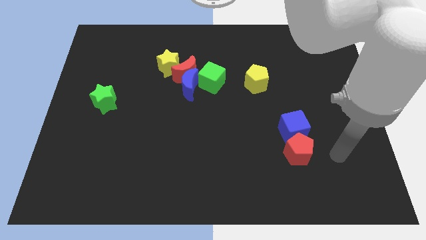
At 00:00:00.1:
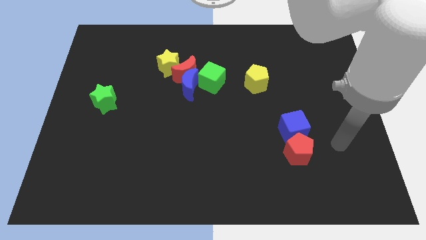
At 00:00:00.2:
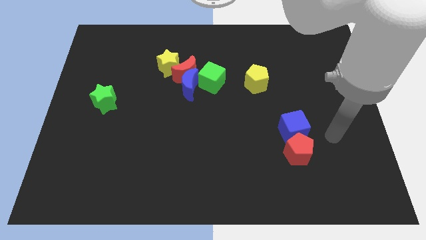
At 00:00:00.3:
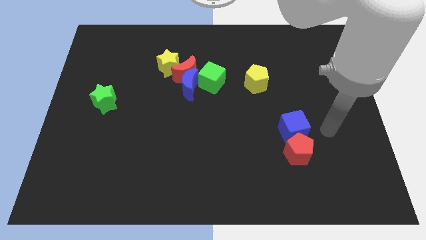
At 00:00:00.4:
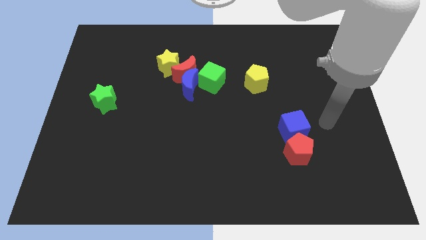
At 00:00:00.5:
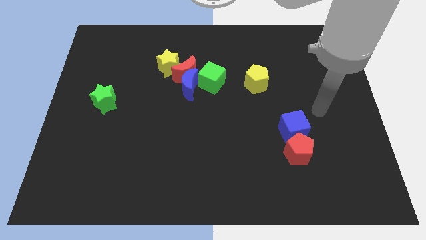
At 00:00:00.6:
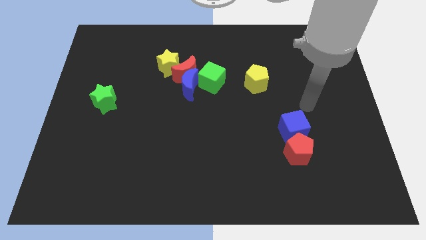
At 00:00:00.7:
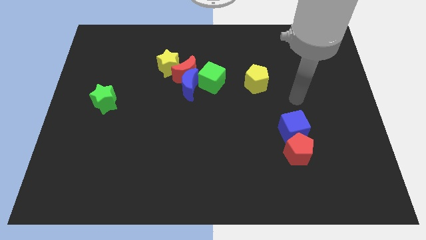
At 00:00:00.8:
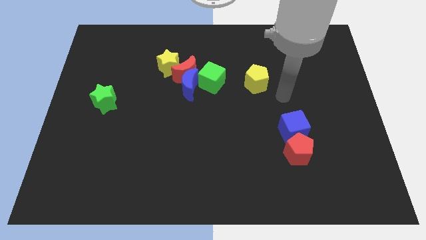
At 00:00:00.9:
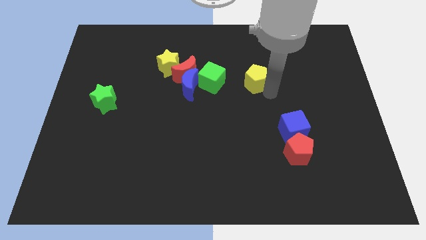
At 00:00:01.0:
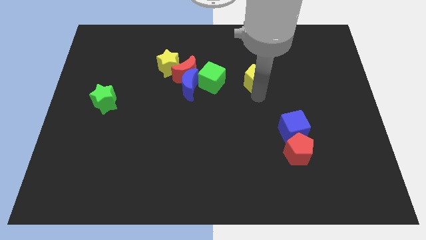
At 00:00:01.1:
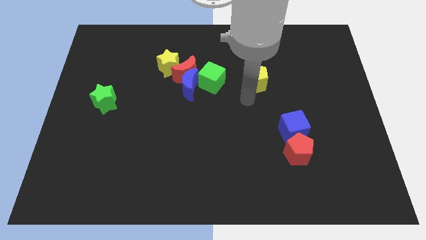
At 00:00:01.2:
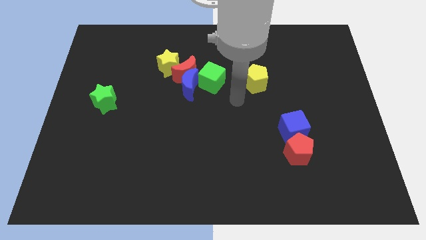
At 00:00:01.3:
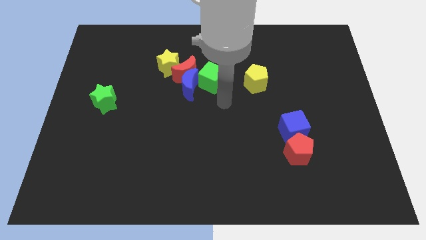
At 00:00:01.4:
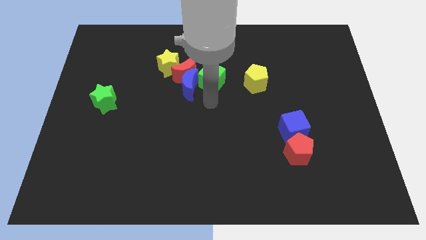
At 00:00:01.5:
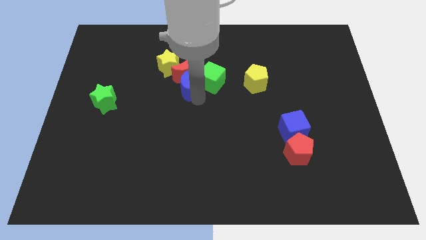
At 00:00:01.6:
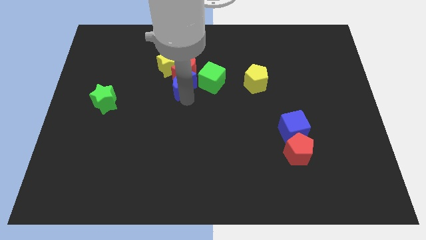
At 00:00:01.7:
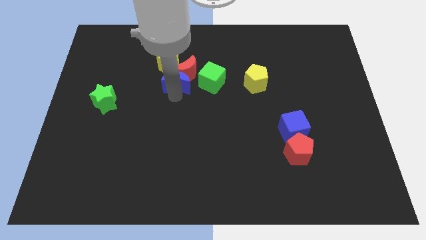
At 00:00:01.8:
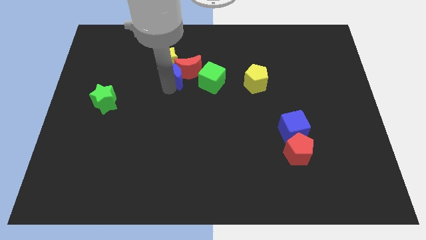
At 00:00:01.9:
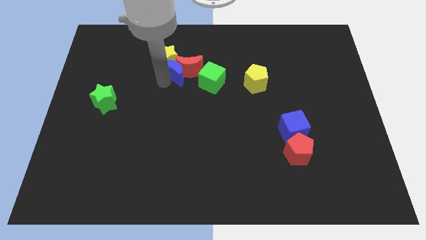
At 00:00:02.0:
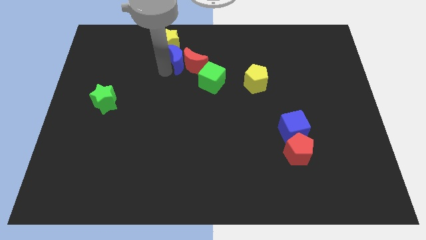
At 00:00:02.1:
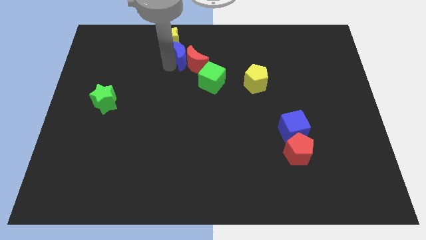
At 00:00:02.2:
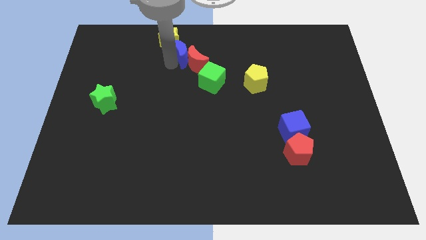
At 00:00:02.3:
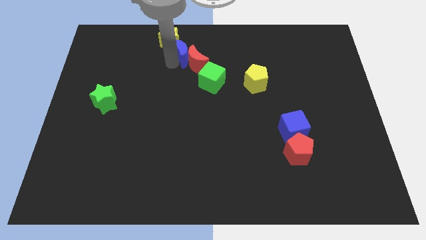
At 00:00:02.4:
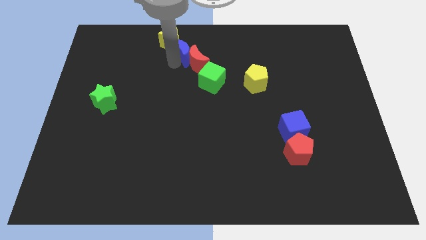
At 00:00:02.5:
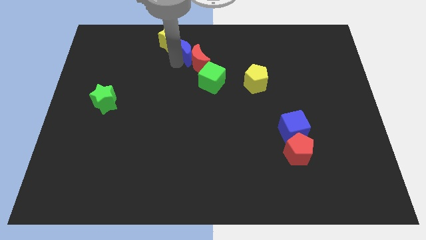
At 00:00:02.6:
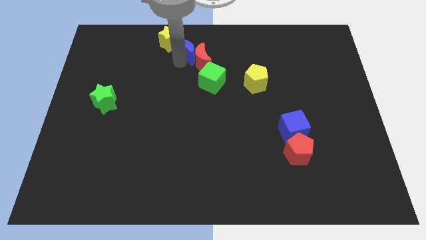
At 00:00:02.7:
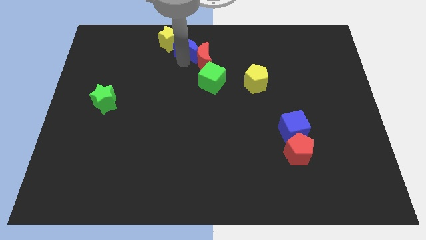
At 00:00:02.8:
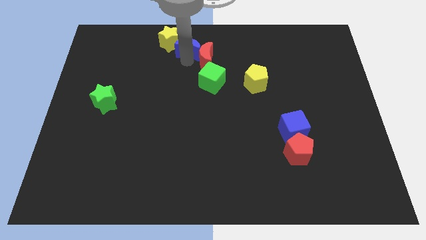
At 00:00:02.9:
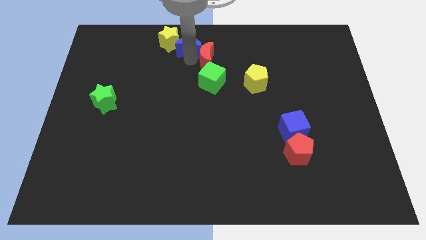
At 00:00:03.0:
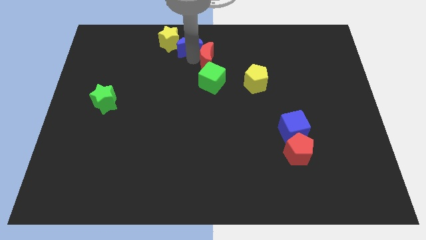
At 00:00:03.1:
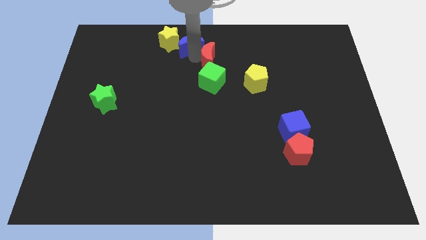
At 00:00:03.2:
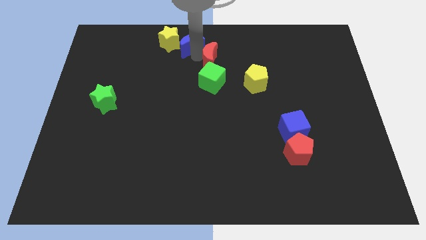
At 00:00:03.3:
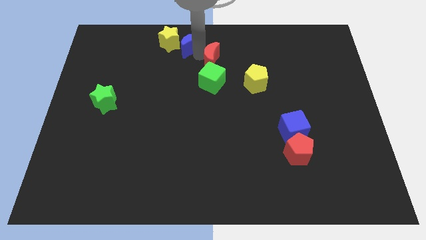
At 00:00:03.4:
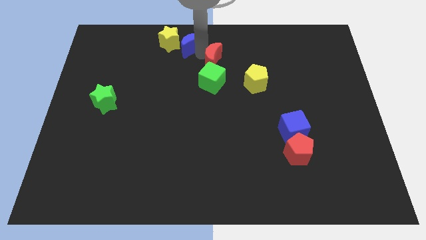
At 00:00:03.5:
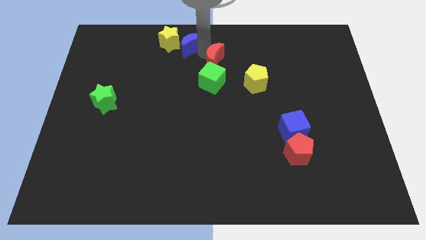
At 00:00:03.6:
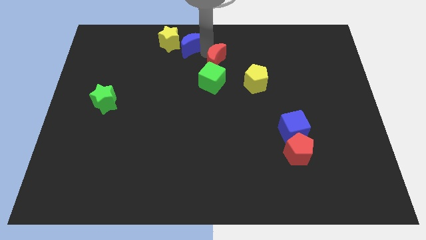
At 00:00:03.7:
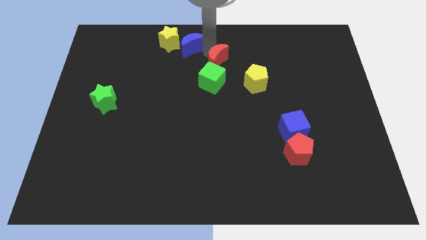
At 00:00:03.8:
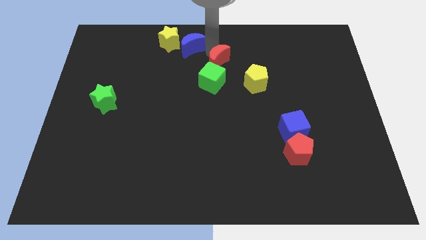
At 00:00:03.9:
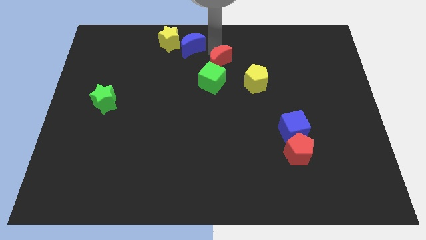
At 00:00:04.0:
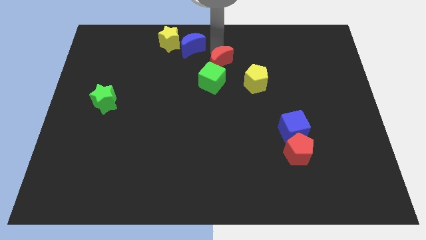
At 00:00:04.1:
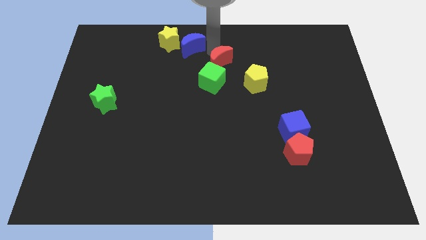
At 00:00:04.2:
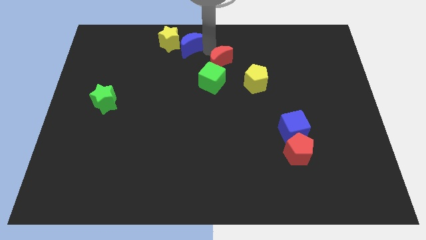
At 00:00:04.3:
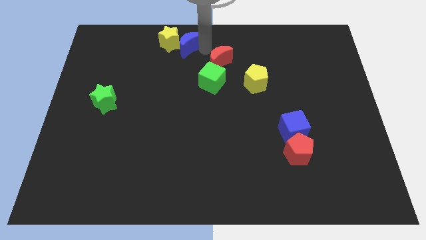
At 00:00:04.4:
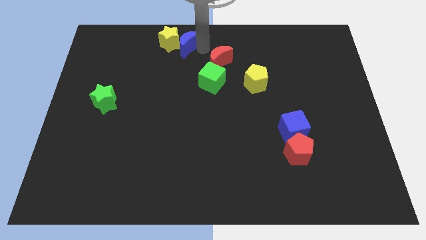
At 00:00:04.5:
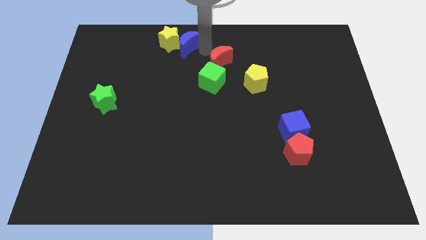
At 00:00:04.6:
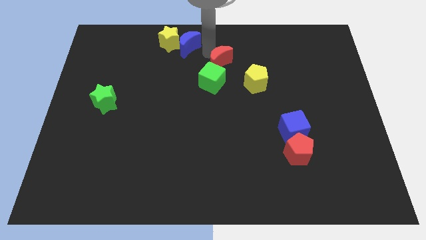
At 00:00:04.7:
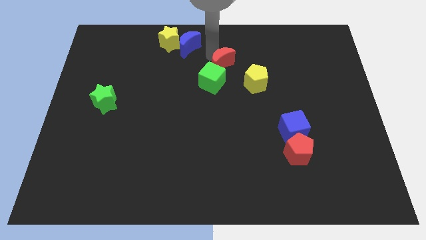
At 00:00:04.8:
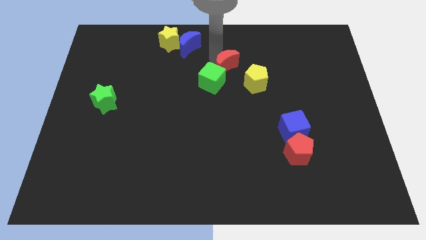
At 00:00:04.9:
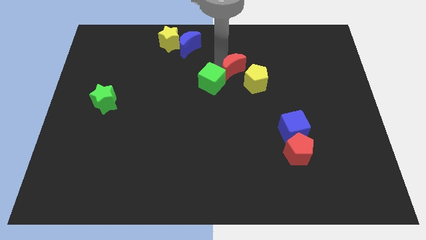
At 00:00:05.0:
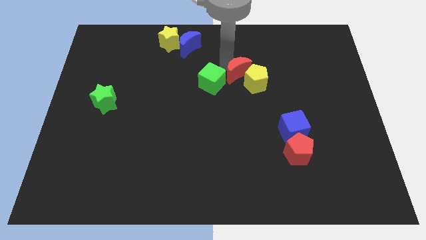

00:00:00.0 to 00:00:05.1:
put the red moon to the yellow pentagon
